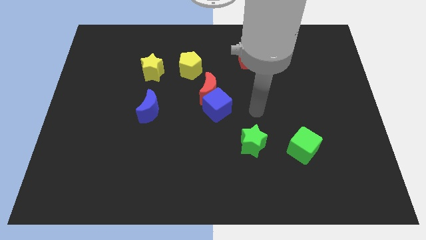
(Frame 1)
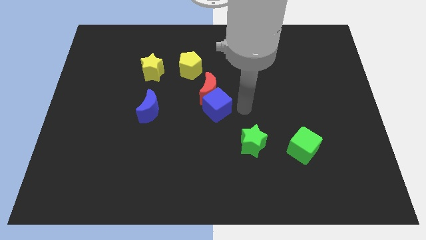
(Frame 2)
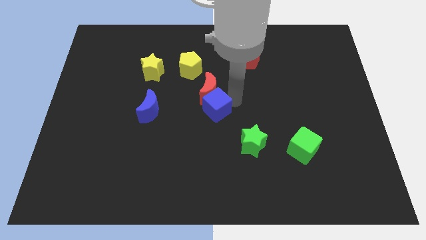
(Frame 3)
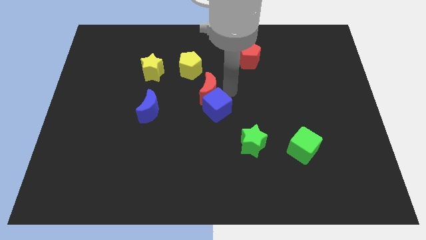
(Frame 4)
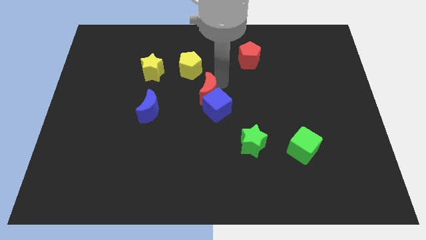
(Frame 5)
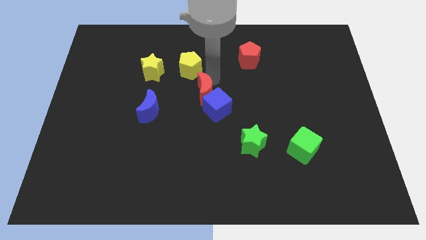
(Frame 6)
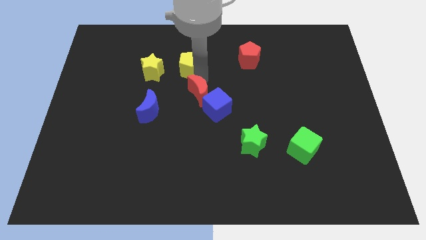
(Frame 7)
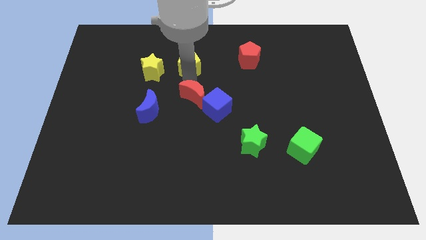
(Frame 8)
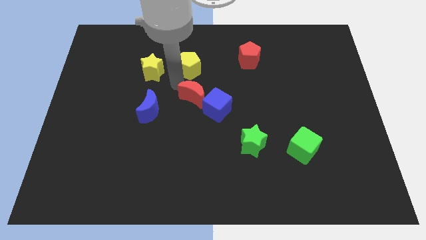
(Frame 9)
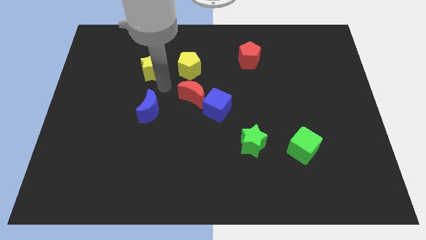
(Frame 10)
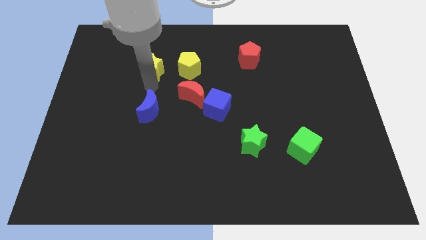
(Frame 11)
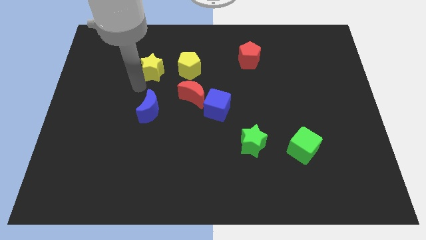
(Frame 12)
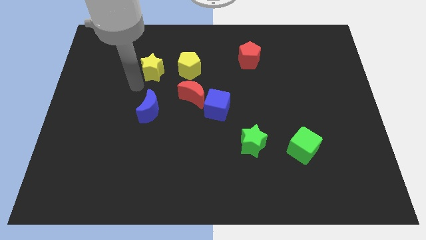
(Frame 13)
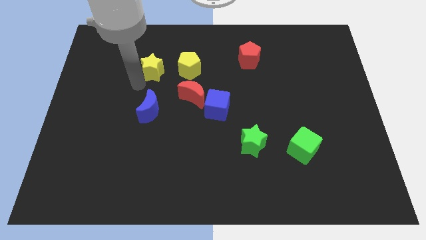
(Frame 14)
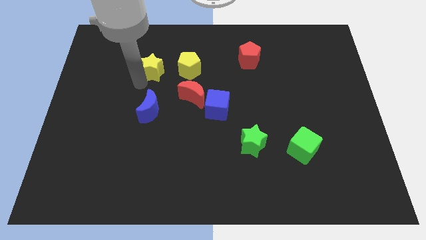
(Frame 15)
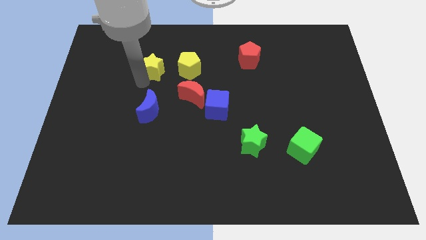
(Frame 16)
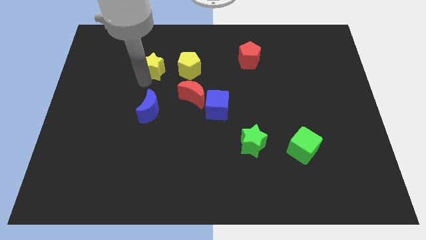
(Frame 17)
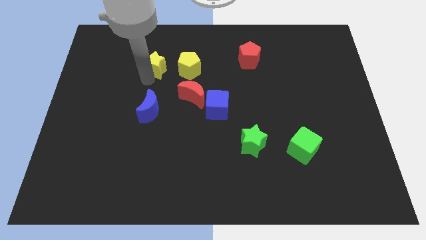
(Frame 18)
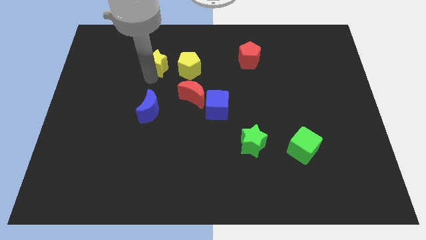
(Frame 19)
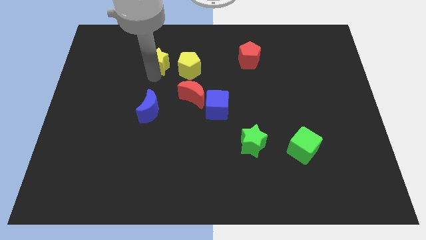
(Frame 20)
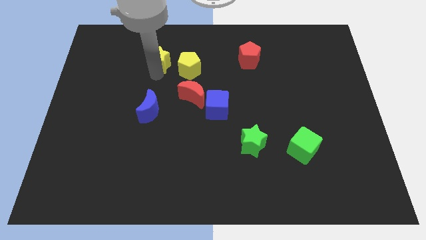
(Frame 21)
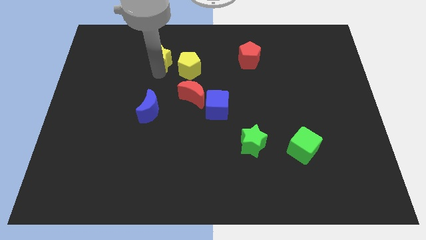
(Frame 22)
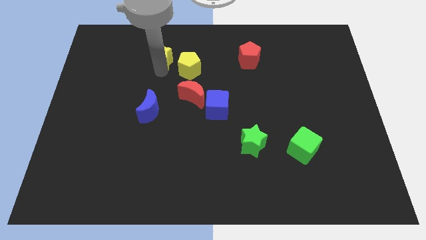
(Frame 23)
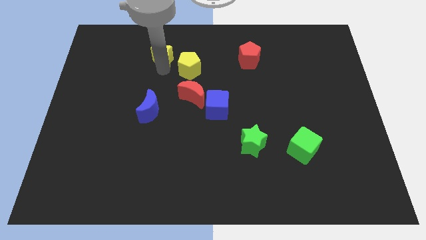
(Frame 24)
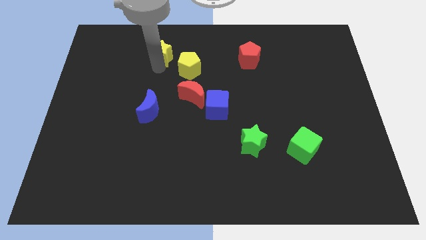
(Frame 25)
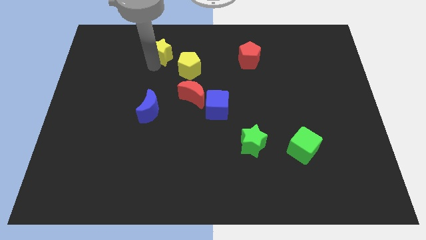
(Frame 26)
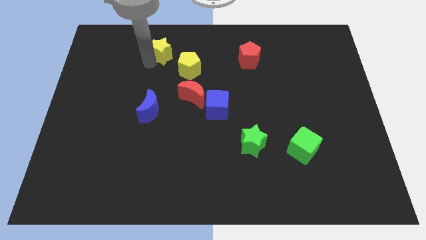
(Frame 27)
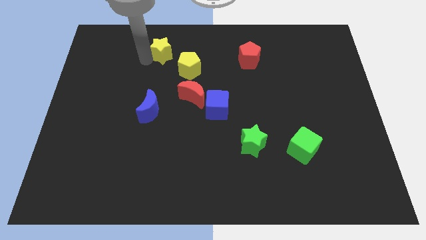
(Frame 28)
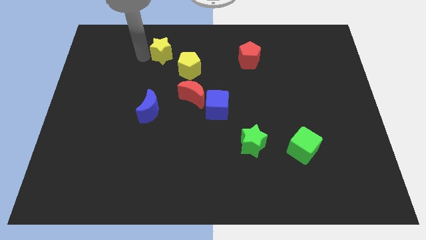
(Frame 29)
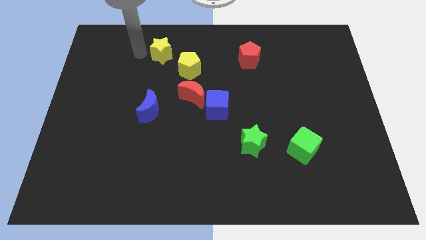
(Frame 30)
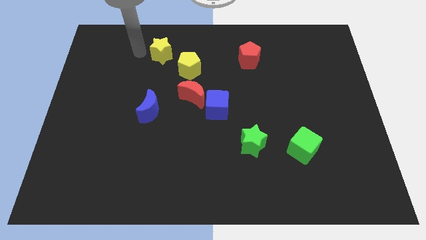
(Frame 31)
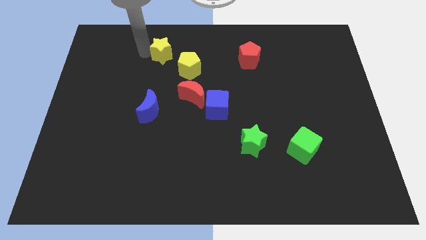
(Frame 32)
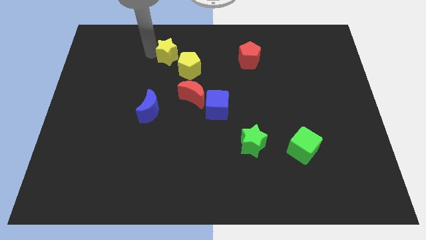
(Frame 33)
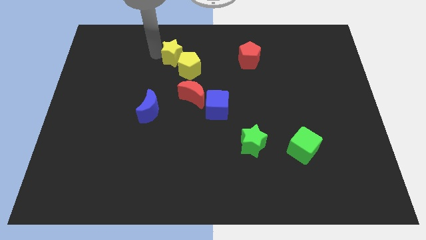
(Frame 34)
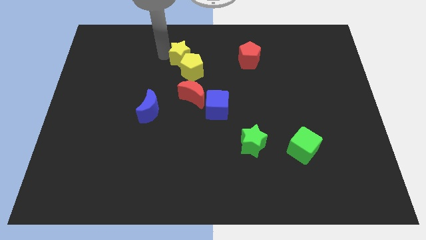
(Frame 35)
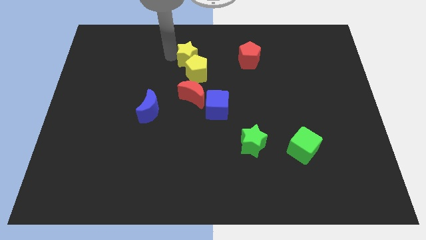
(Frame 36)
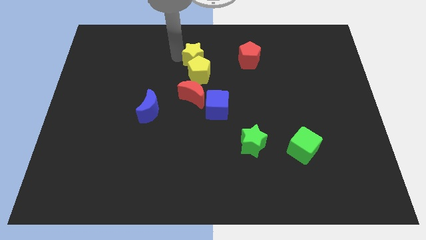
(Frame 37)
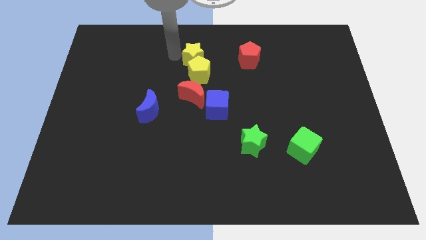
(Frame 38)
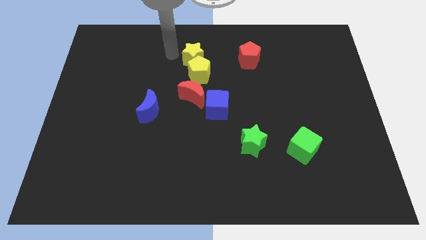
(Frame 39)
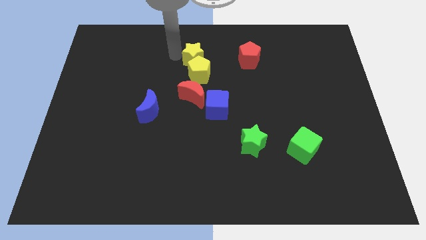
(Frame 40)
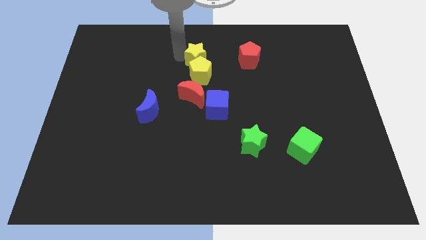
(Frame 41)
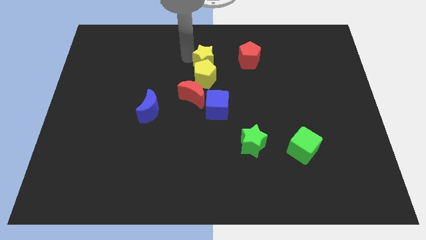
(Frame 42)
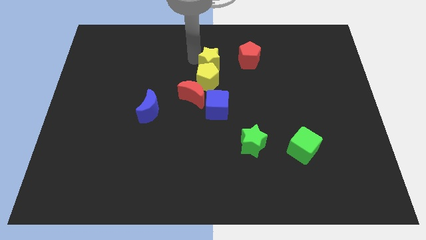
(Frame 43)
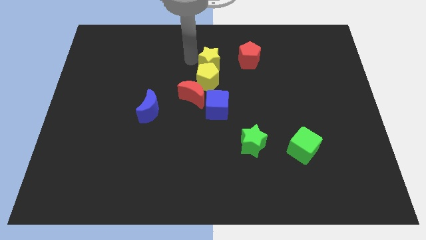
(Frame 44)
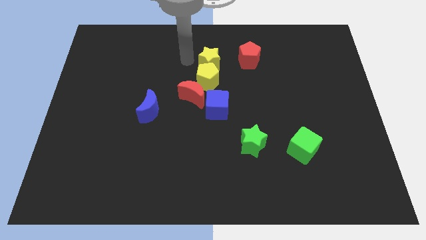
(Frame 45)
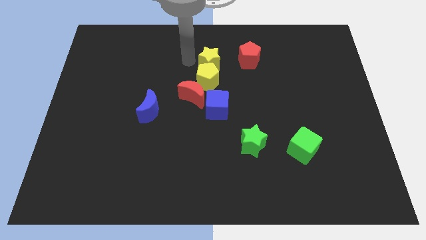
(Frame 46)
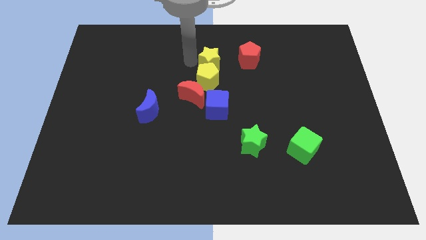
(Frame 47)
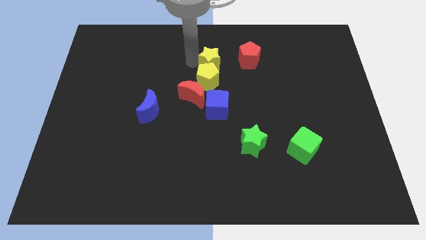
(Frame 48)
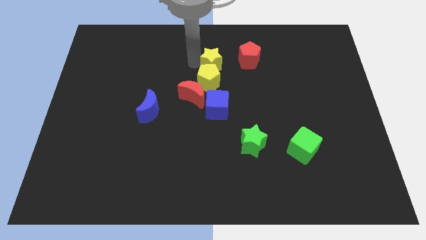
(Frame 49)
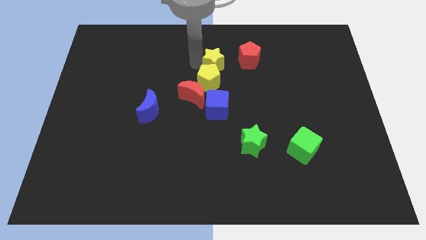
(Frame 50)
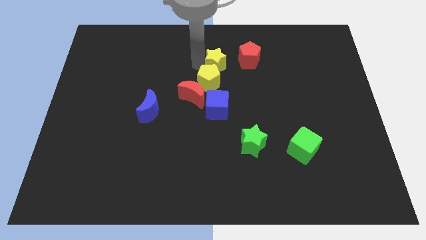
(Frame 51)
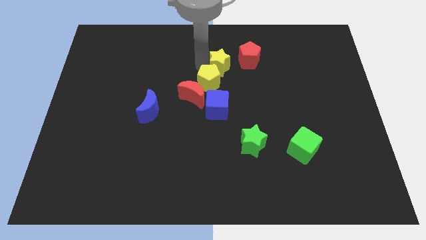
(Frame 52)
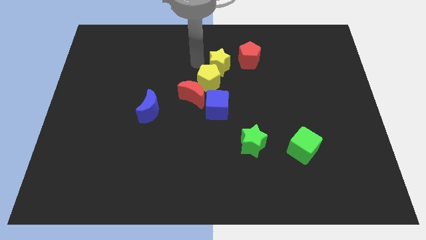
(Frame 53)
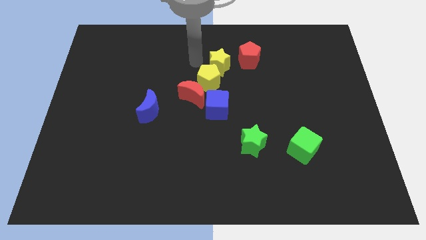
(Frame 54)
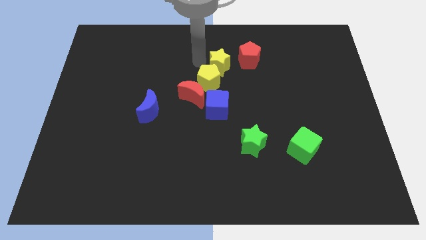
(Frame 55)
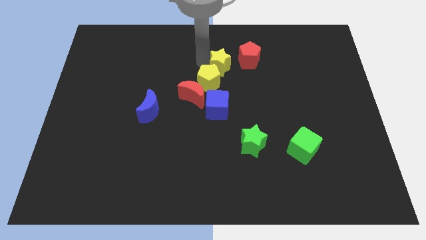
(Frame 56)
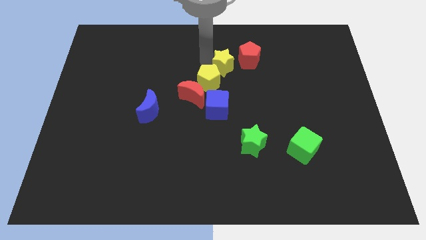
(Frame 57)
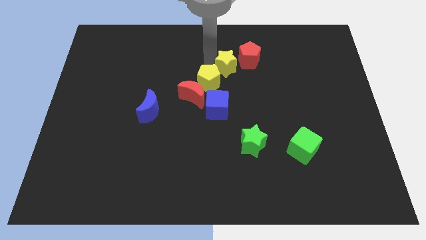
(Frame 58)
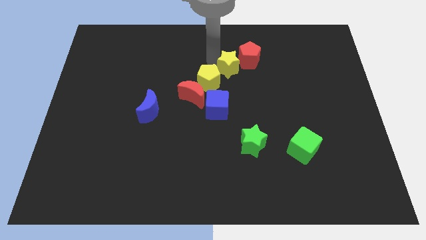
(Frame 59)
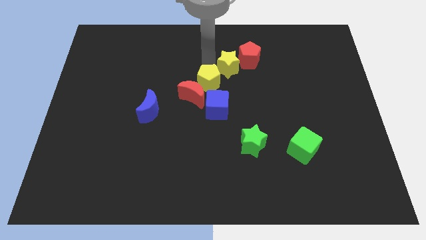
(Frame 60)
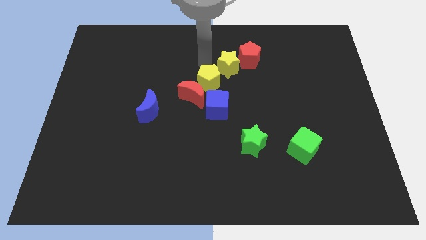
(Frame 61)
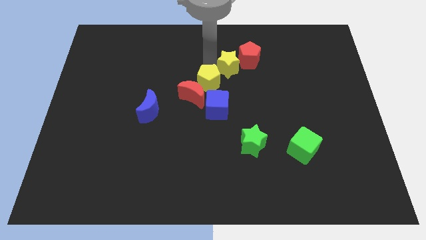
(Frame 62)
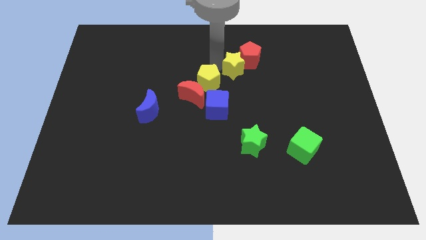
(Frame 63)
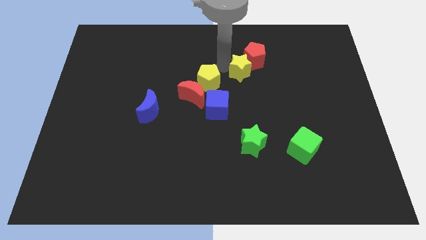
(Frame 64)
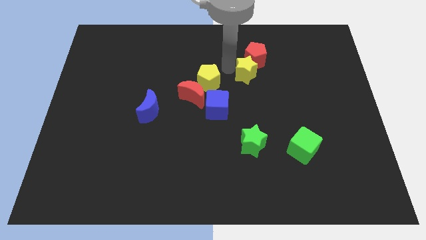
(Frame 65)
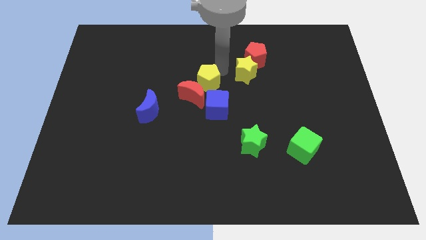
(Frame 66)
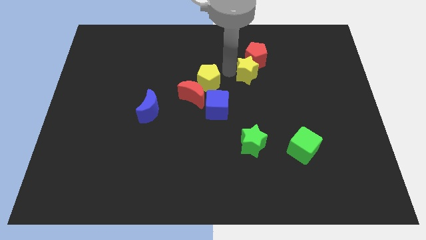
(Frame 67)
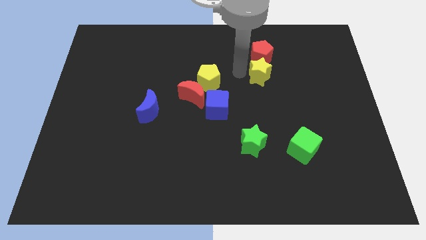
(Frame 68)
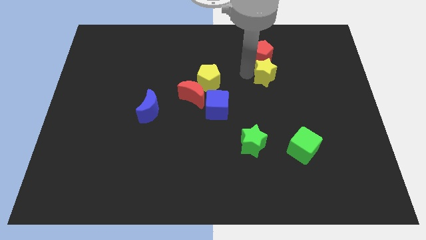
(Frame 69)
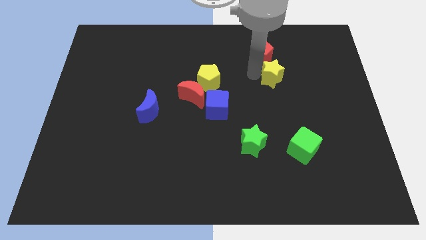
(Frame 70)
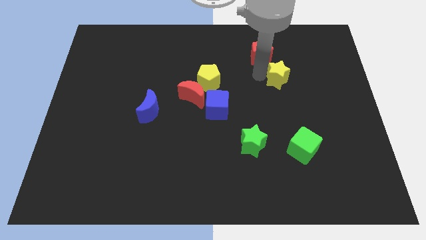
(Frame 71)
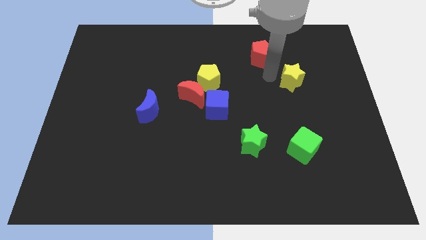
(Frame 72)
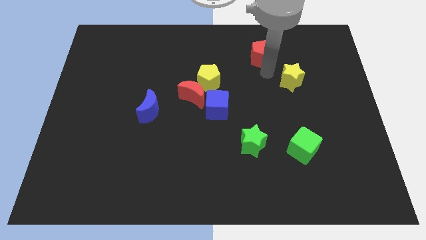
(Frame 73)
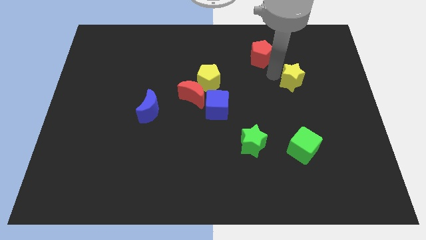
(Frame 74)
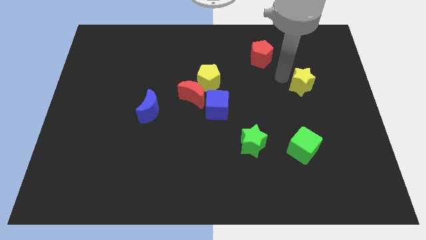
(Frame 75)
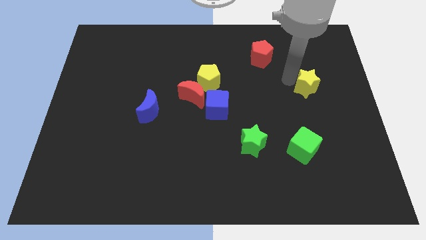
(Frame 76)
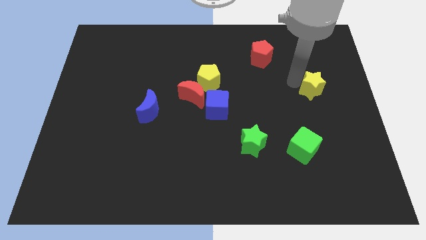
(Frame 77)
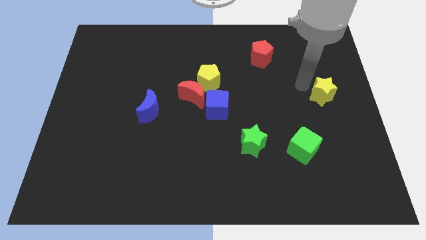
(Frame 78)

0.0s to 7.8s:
push the yellow star to the right side
